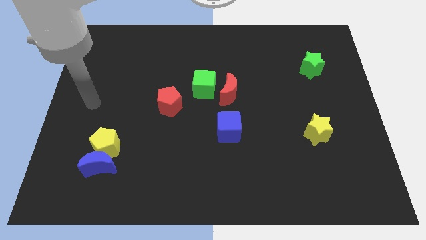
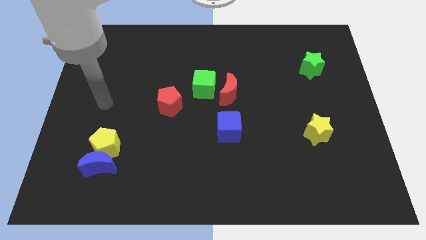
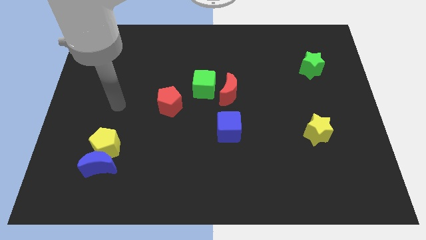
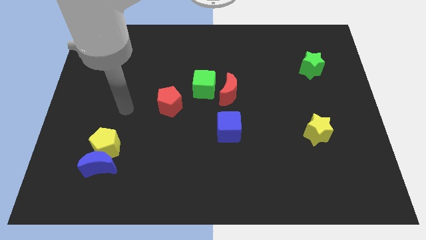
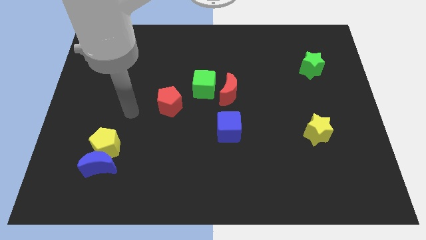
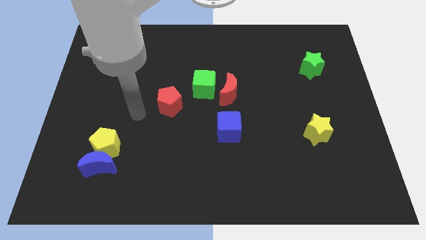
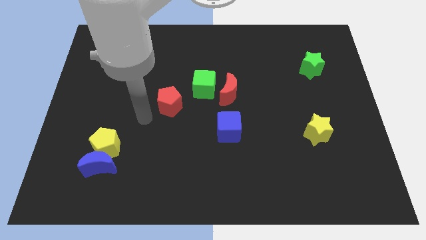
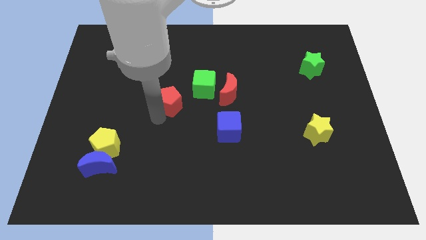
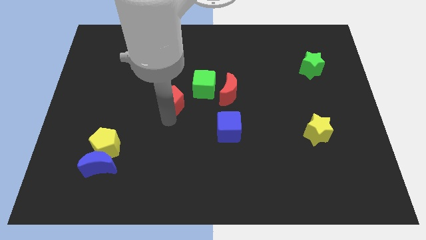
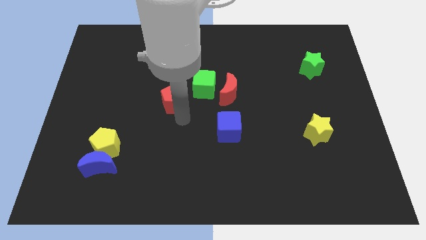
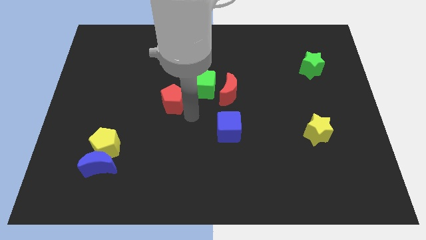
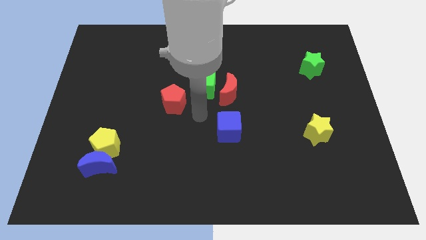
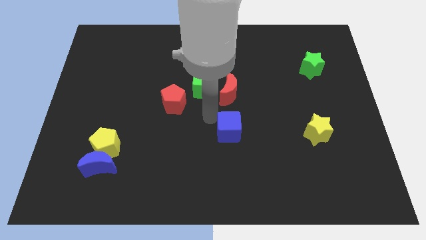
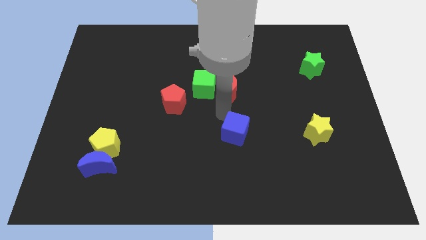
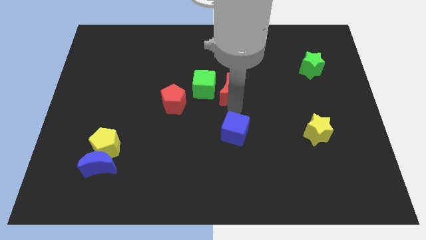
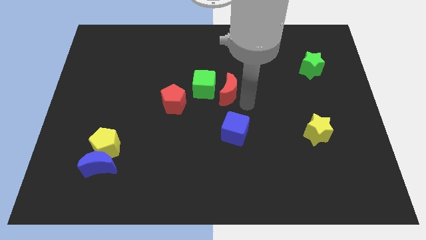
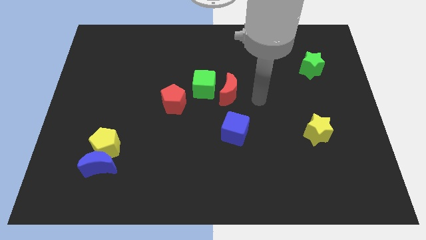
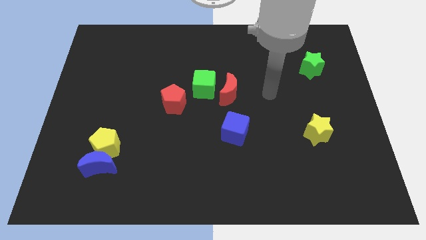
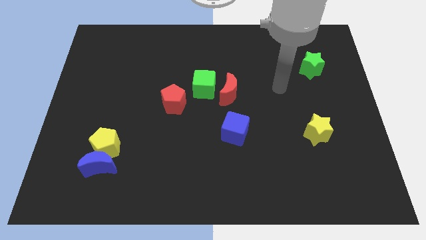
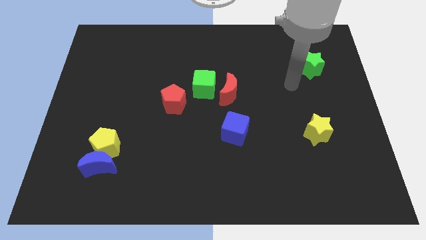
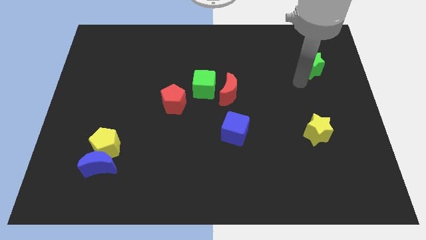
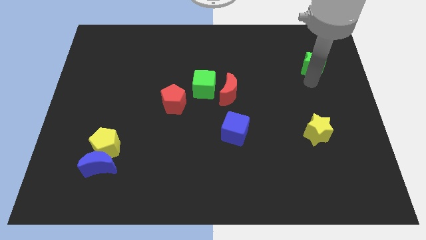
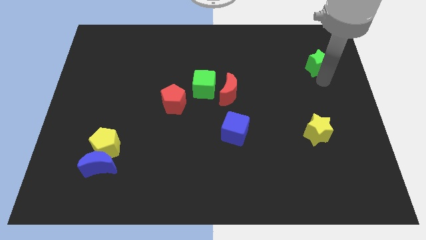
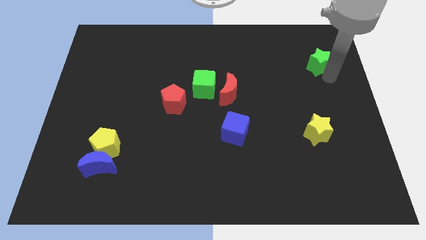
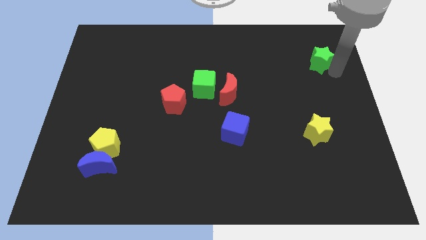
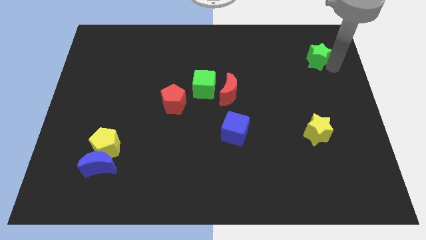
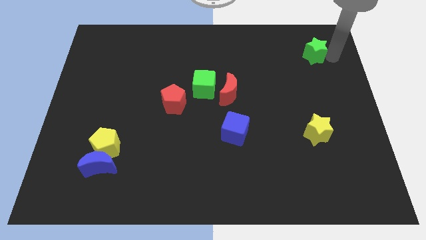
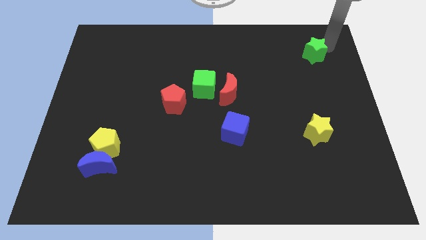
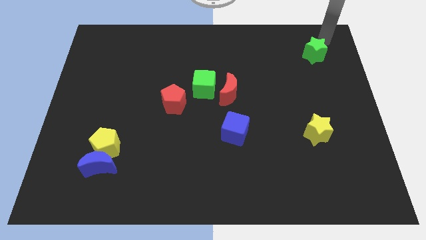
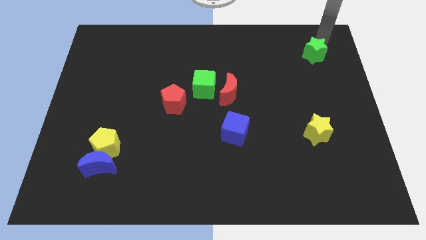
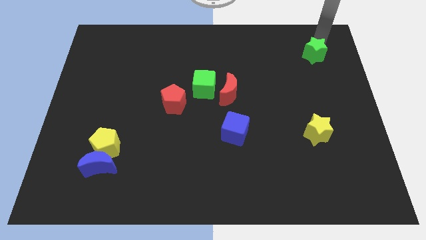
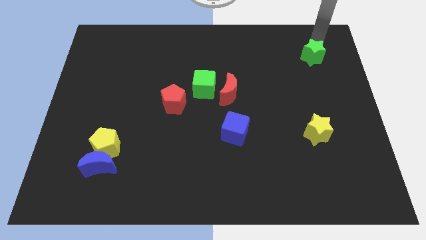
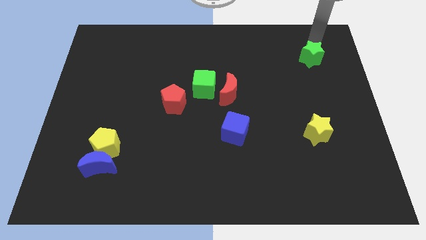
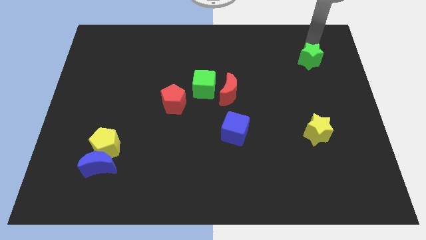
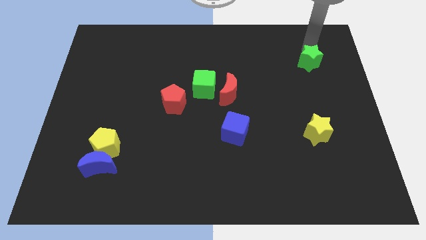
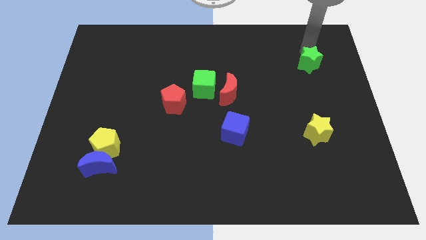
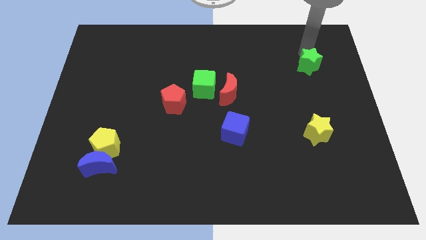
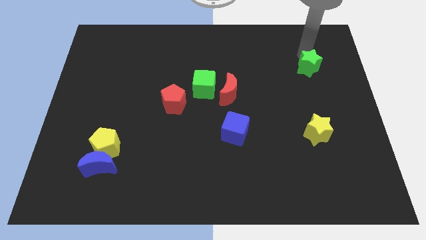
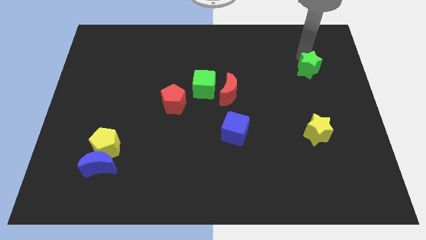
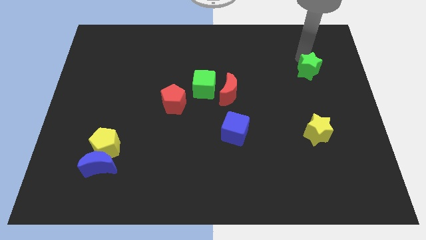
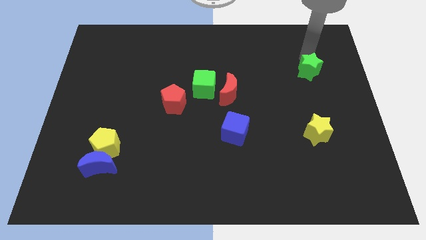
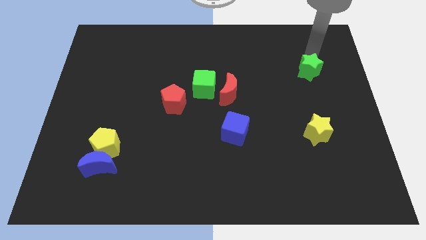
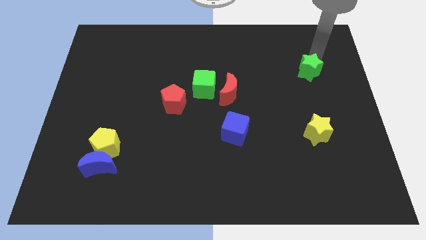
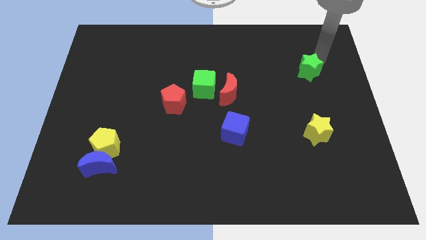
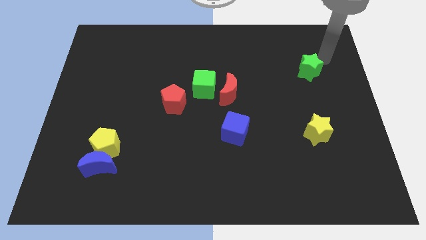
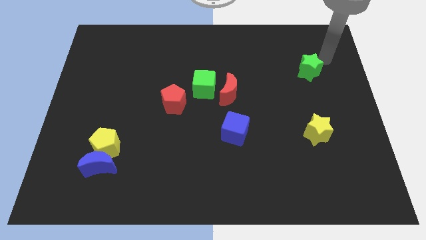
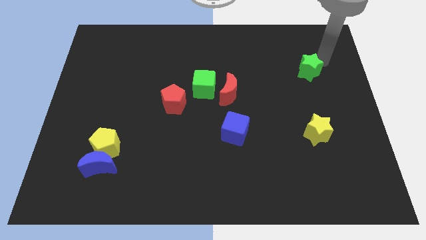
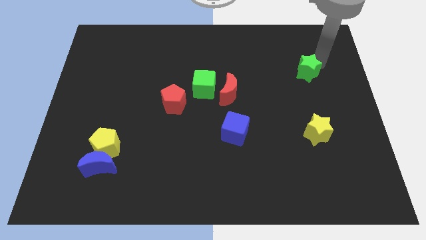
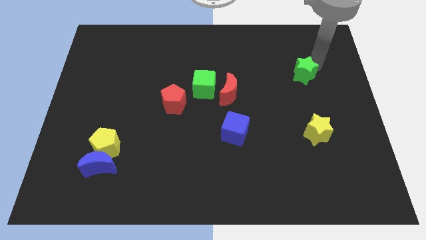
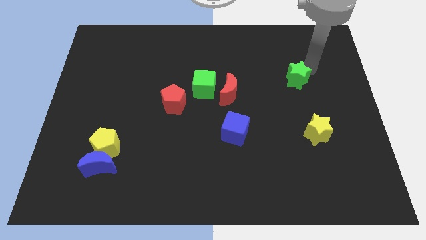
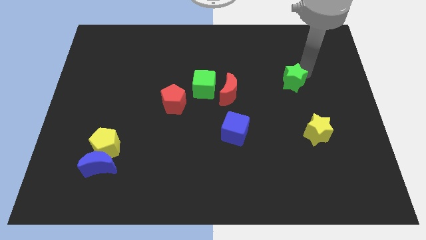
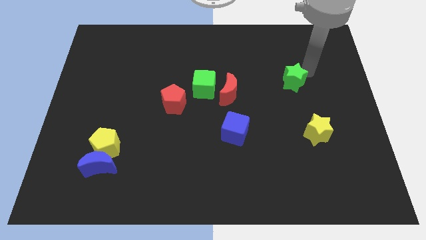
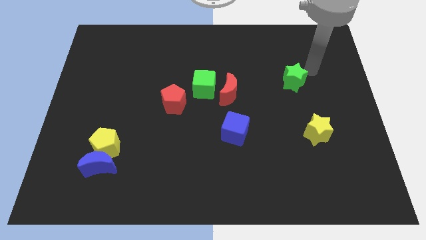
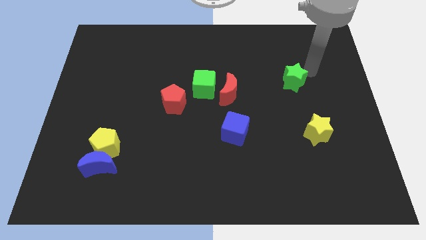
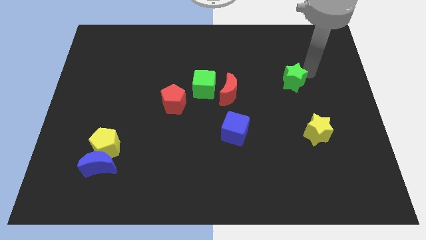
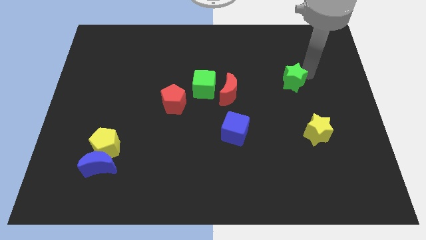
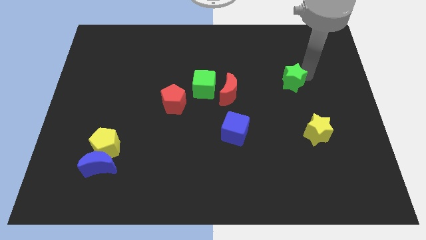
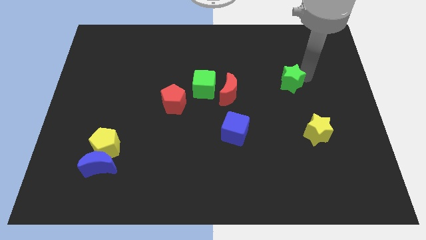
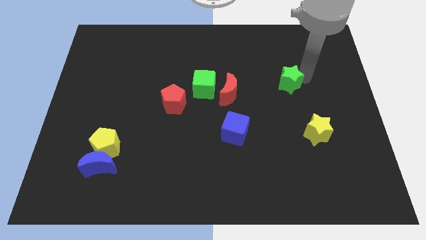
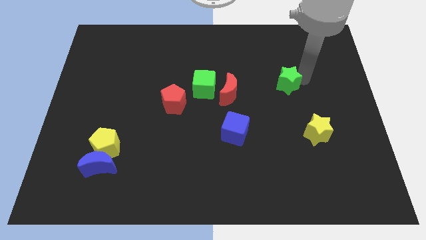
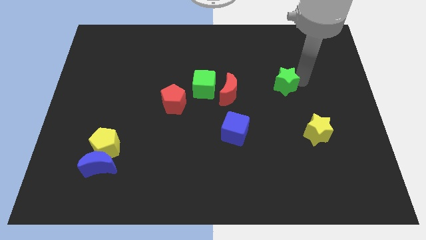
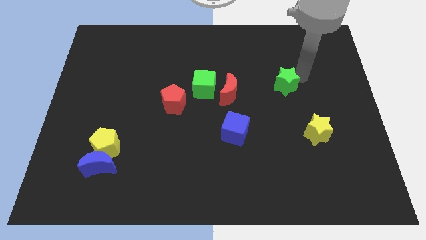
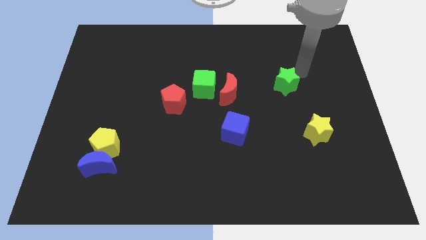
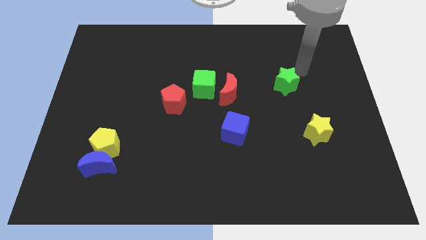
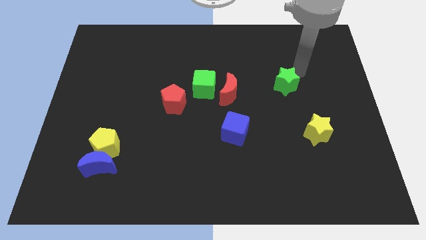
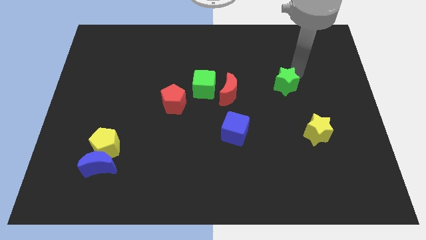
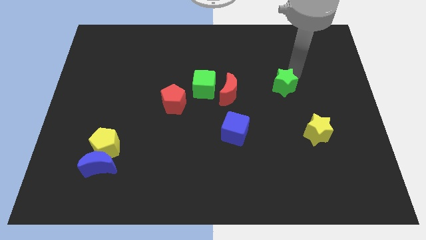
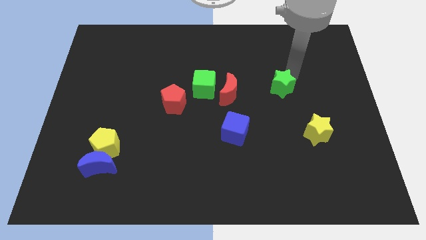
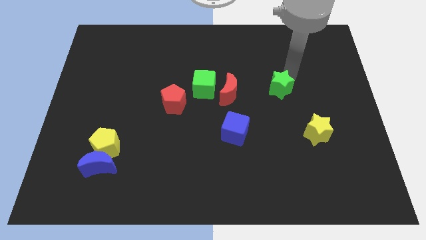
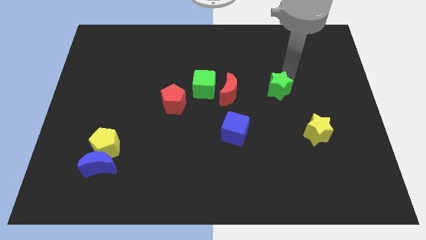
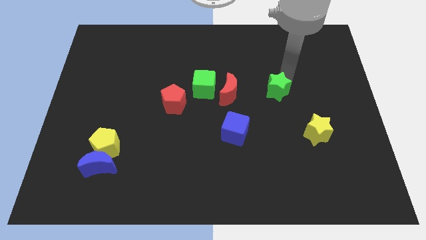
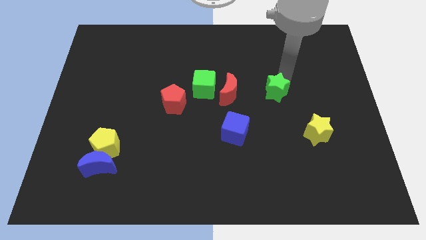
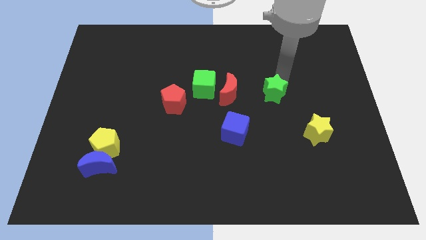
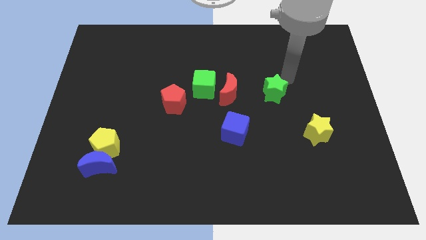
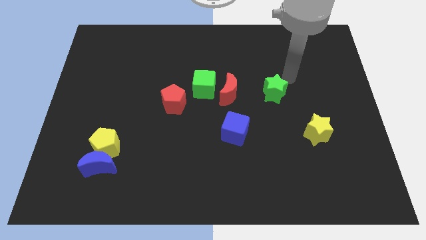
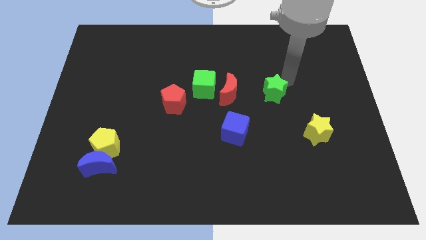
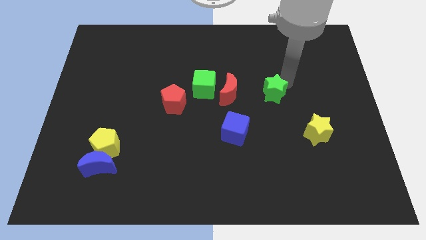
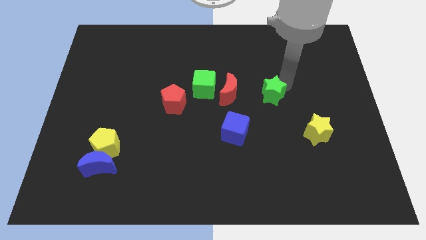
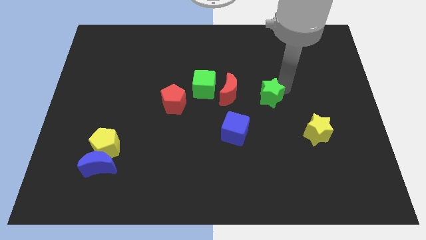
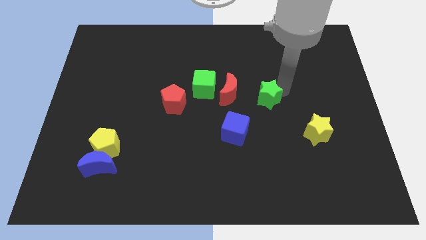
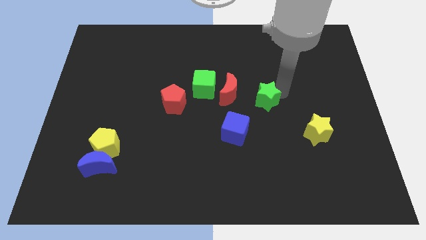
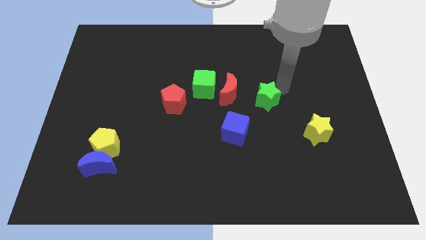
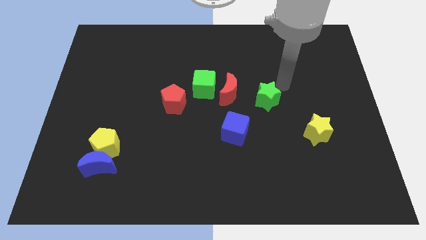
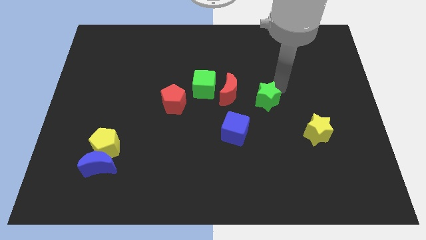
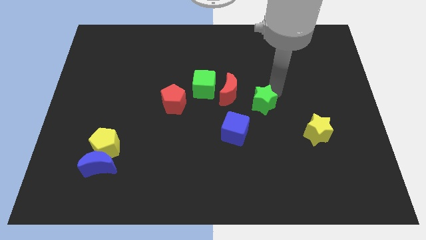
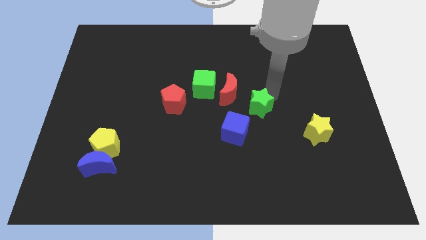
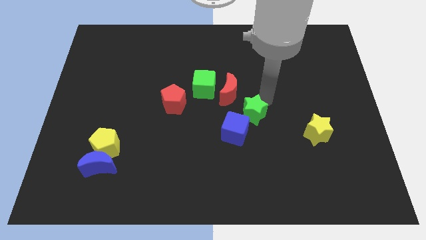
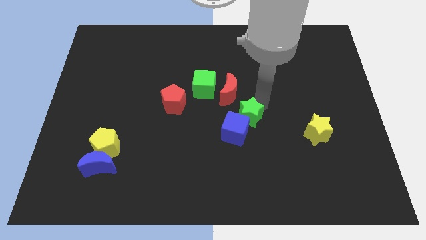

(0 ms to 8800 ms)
push the green star towards the blue cube
